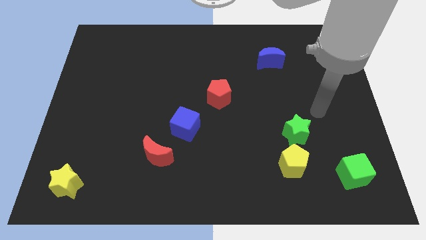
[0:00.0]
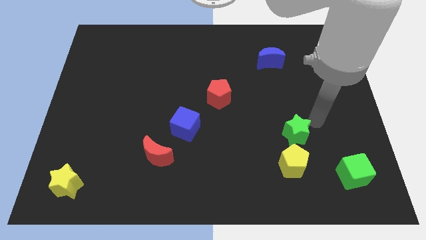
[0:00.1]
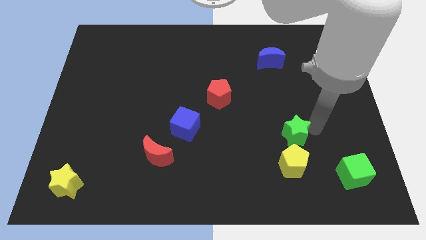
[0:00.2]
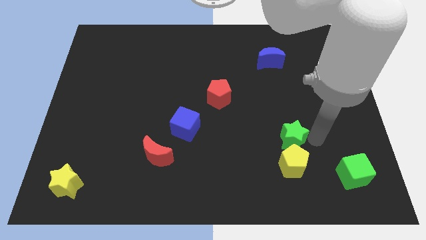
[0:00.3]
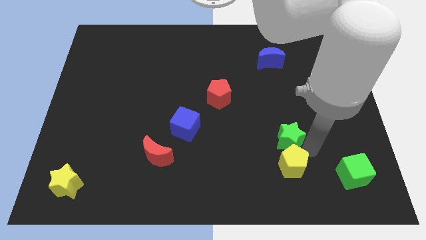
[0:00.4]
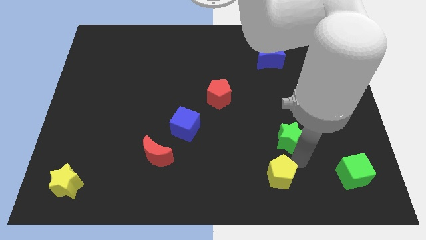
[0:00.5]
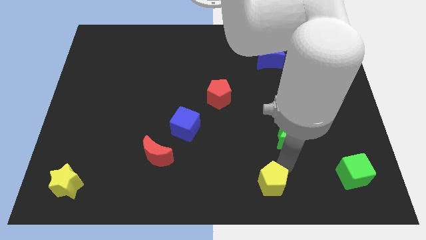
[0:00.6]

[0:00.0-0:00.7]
separate the green star from the yellow pentagon

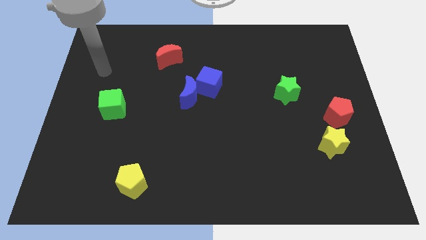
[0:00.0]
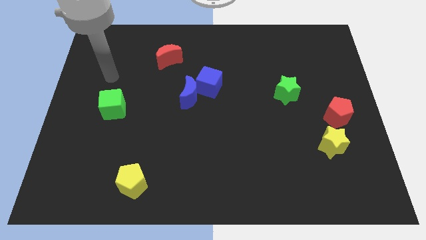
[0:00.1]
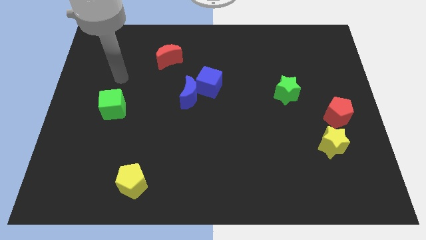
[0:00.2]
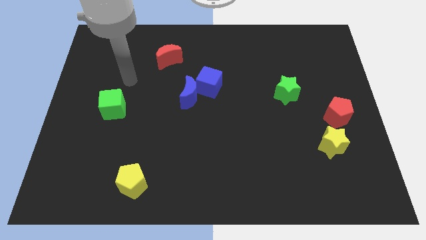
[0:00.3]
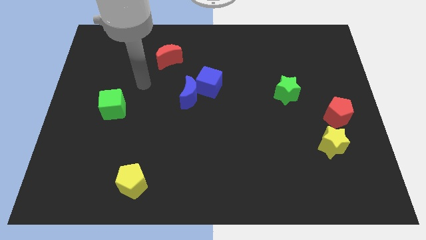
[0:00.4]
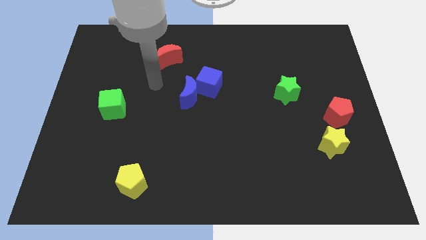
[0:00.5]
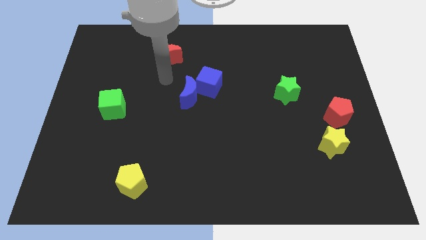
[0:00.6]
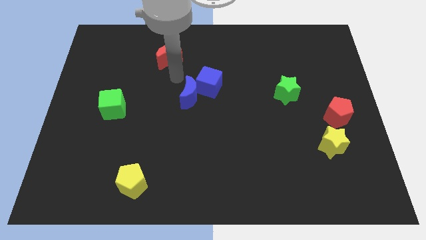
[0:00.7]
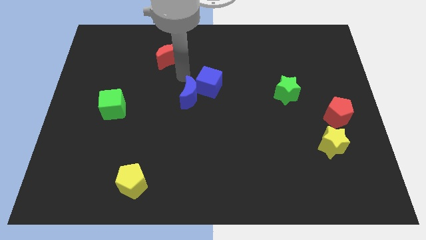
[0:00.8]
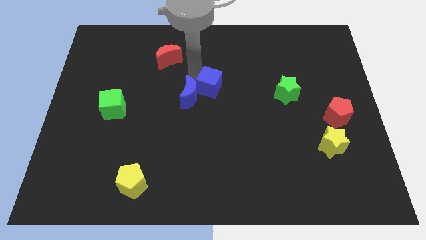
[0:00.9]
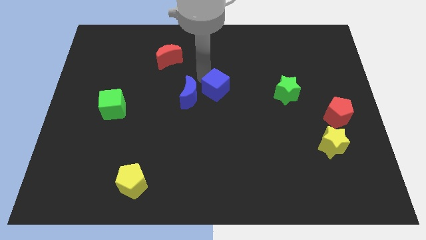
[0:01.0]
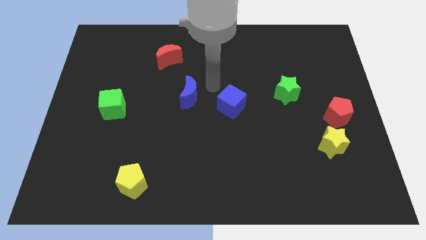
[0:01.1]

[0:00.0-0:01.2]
move the blue moon away from the blue cube

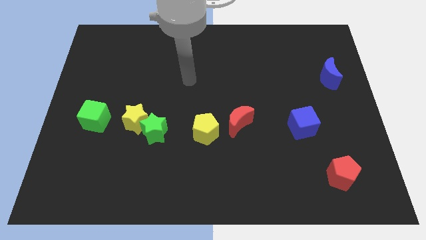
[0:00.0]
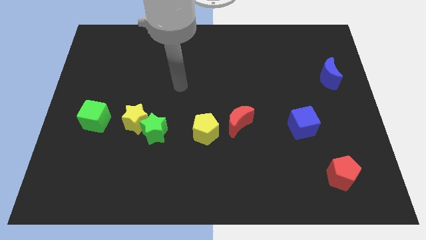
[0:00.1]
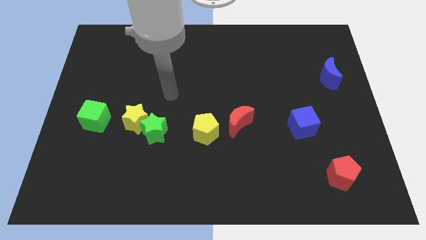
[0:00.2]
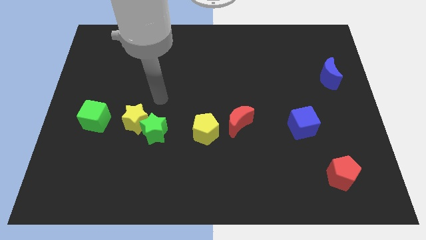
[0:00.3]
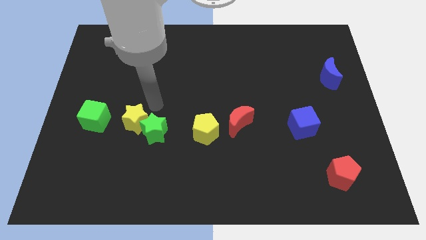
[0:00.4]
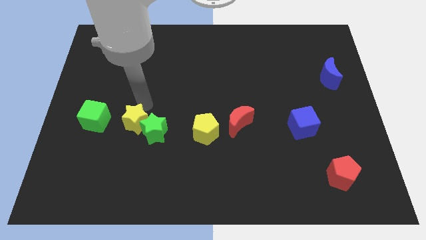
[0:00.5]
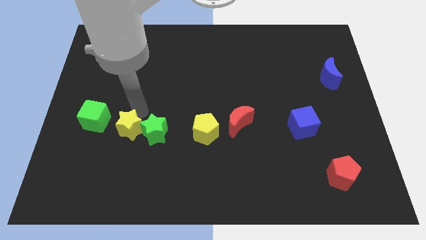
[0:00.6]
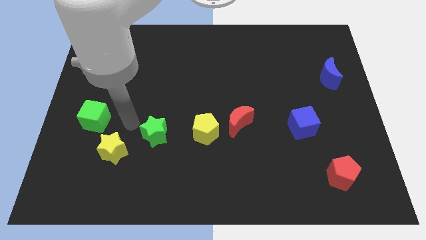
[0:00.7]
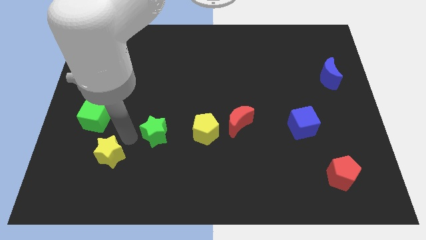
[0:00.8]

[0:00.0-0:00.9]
separate the green star from the yellow star

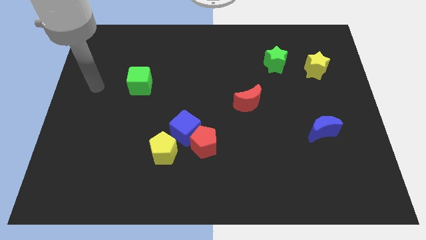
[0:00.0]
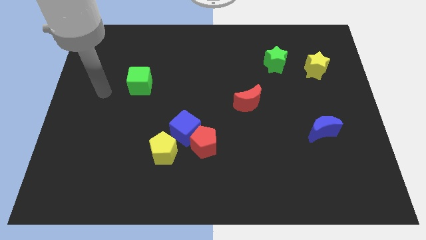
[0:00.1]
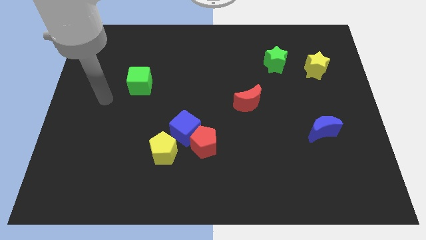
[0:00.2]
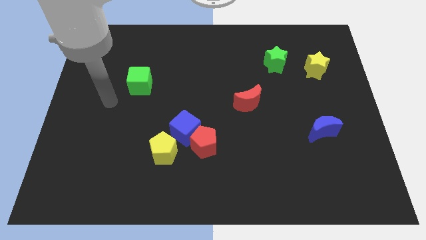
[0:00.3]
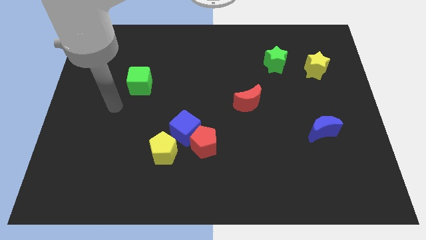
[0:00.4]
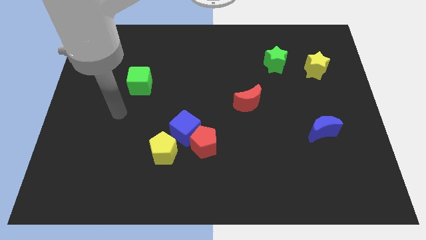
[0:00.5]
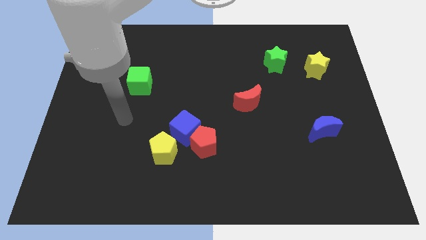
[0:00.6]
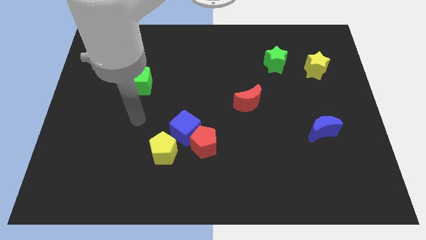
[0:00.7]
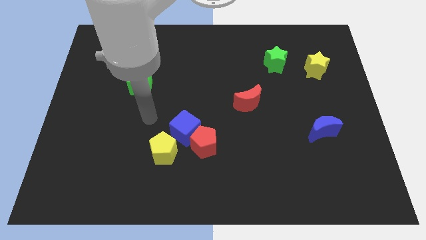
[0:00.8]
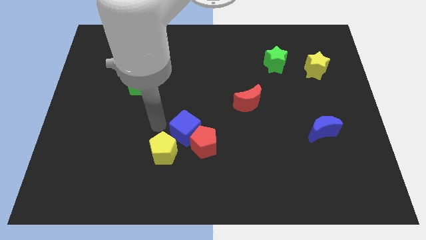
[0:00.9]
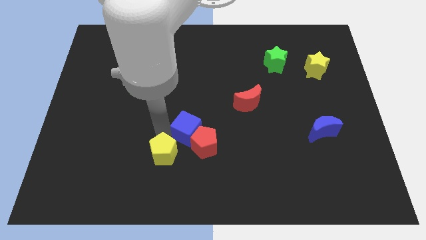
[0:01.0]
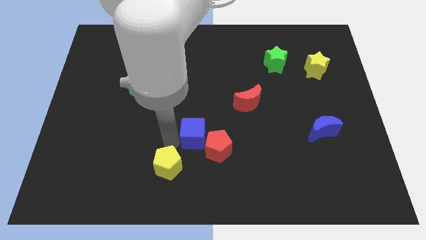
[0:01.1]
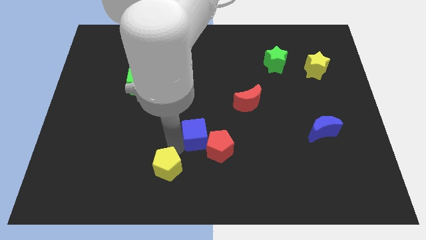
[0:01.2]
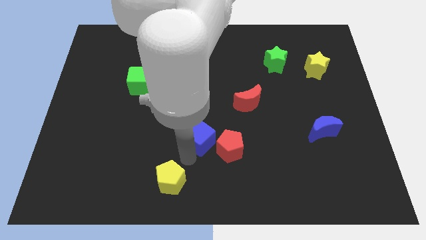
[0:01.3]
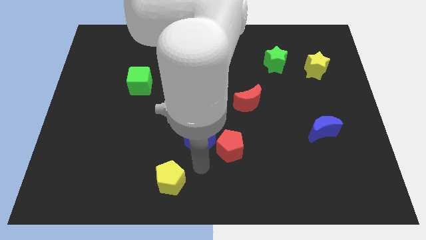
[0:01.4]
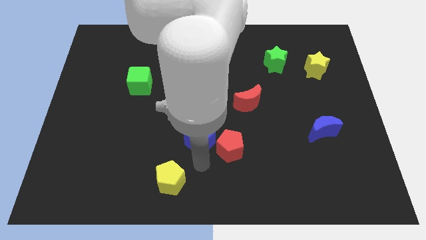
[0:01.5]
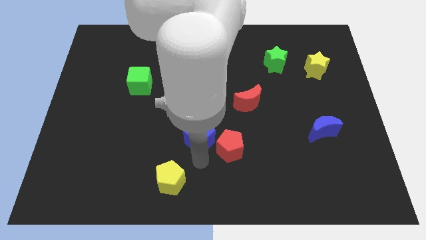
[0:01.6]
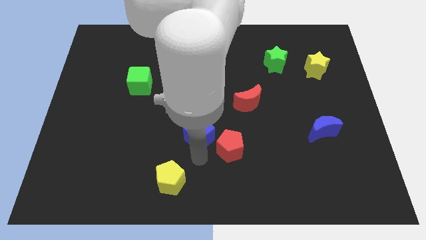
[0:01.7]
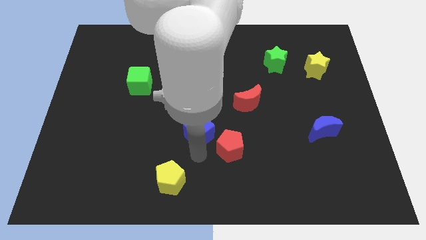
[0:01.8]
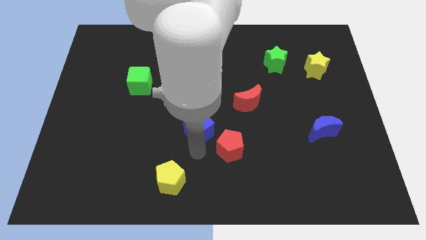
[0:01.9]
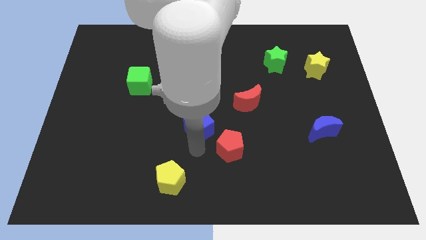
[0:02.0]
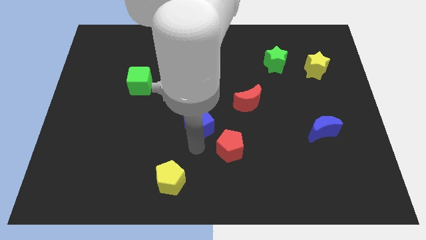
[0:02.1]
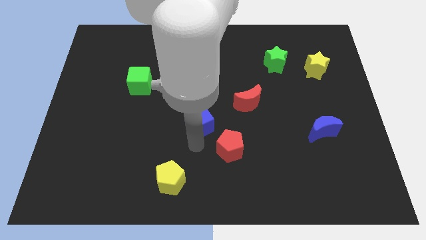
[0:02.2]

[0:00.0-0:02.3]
pull the blue cube apart from the red pentagon and yellow pentagon

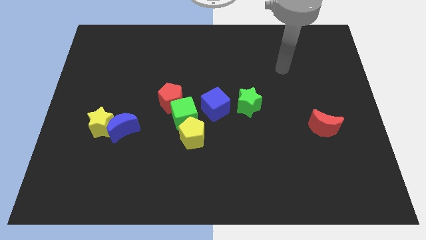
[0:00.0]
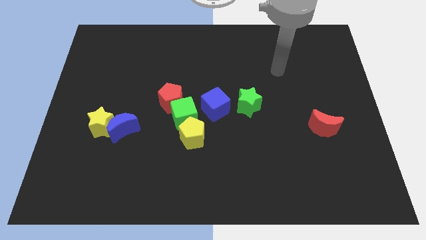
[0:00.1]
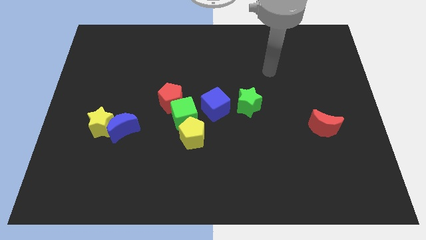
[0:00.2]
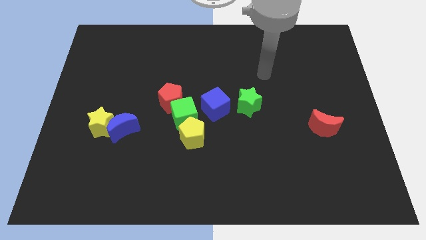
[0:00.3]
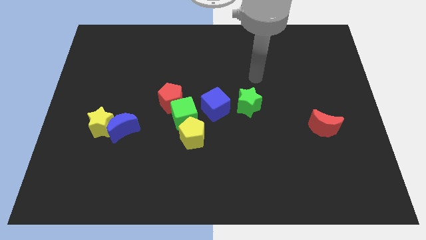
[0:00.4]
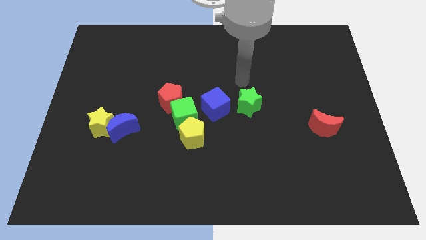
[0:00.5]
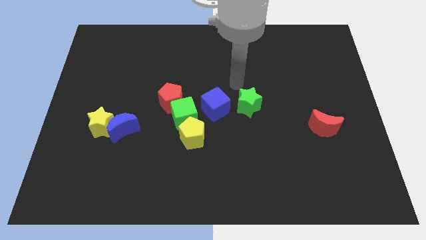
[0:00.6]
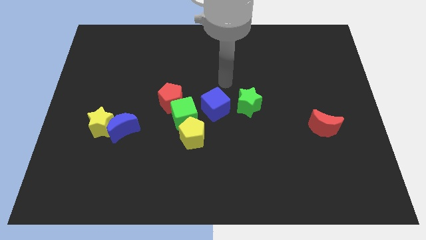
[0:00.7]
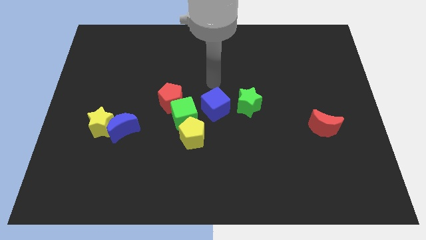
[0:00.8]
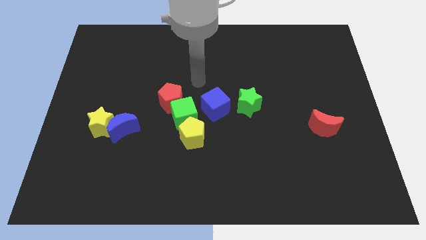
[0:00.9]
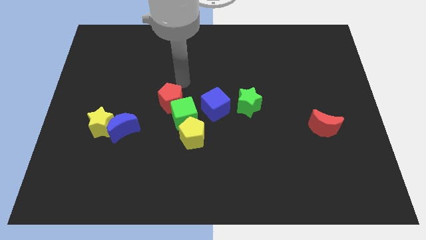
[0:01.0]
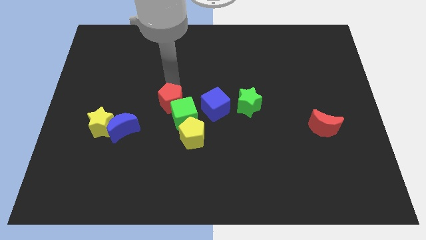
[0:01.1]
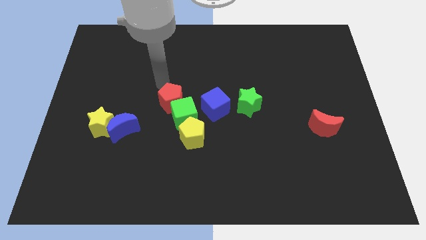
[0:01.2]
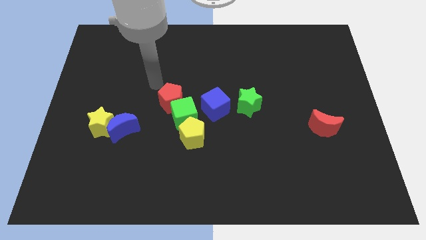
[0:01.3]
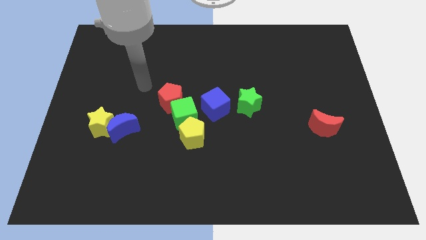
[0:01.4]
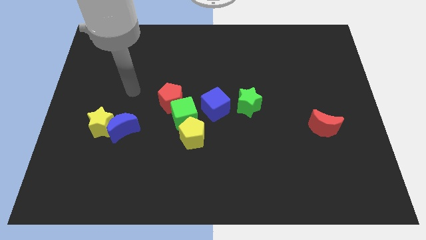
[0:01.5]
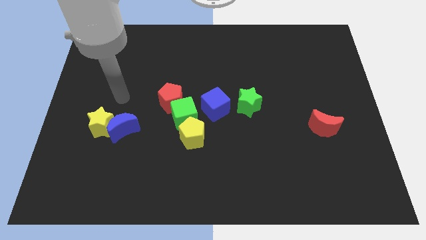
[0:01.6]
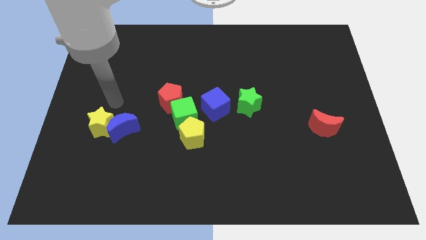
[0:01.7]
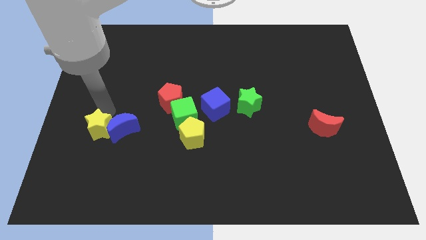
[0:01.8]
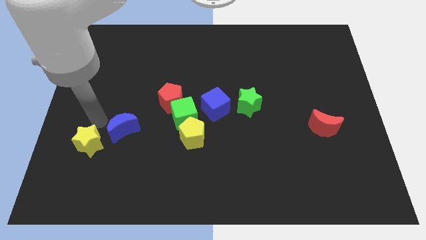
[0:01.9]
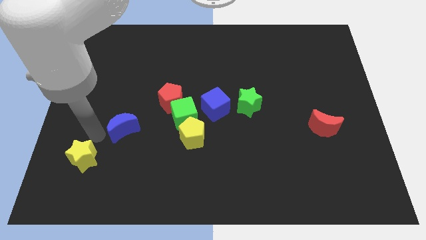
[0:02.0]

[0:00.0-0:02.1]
separate the blue moon from the yellow star

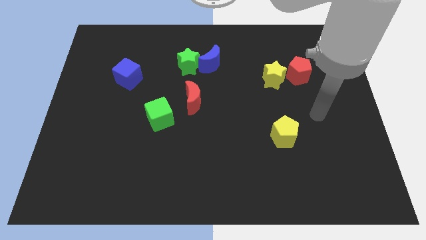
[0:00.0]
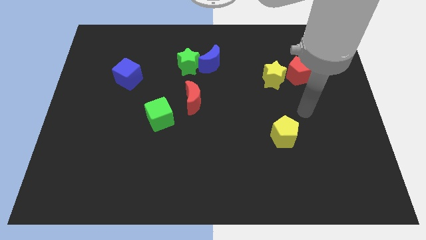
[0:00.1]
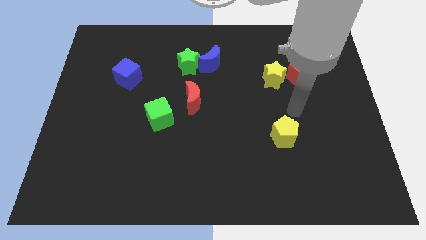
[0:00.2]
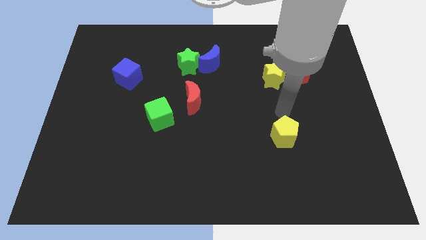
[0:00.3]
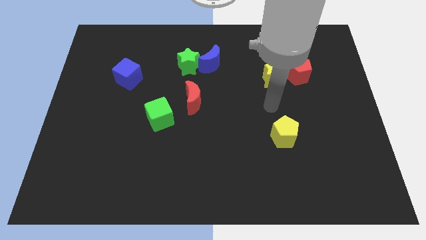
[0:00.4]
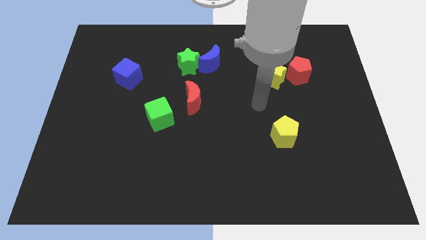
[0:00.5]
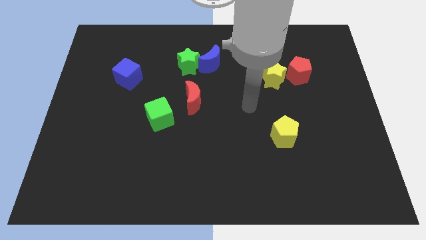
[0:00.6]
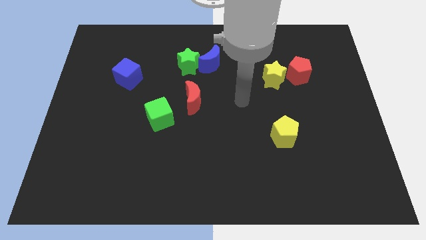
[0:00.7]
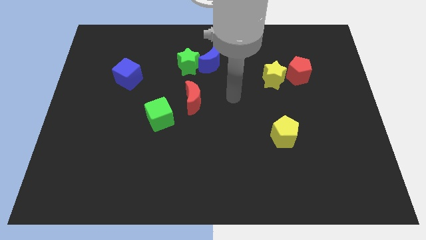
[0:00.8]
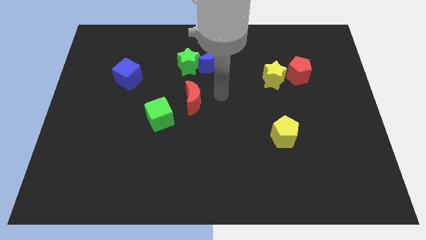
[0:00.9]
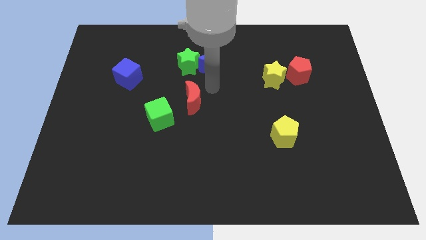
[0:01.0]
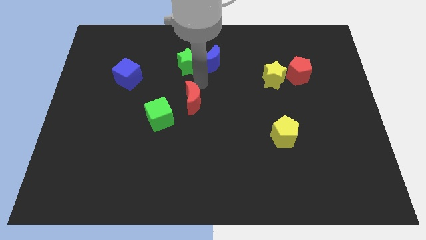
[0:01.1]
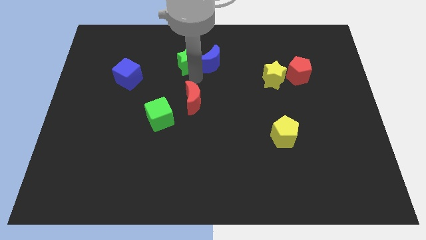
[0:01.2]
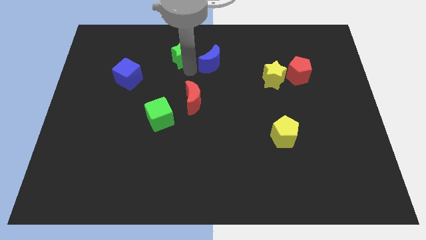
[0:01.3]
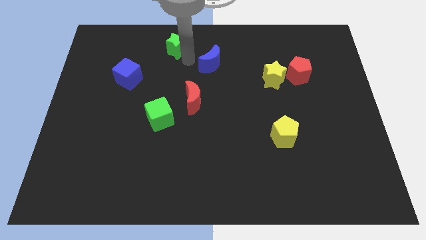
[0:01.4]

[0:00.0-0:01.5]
separate the blue moon from the green star

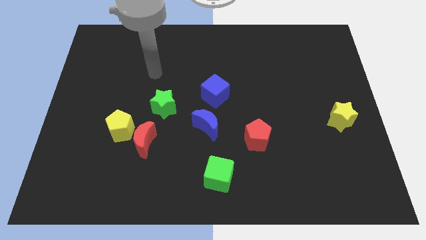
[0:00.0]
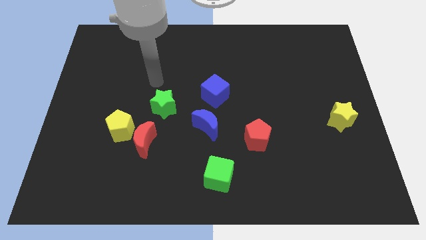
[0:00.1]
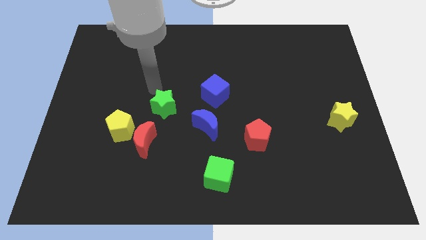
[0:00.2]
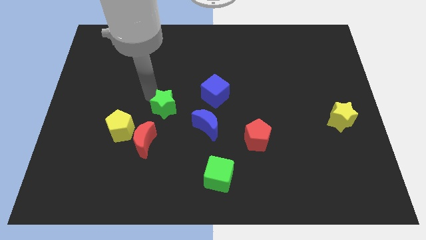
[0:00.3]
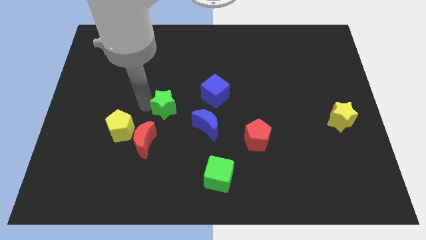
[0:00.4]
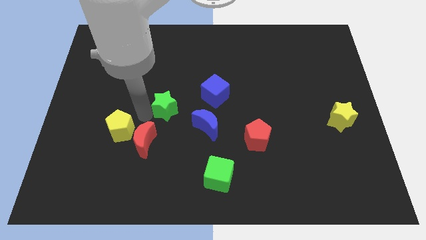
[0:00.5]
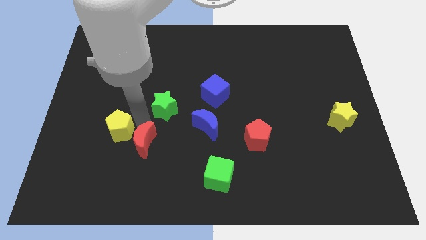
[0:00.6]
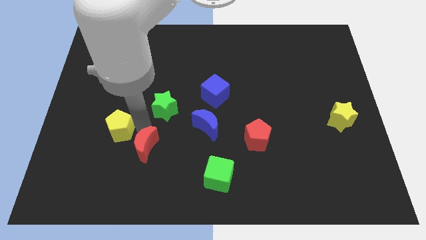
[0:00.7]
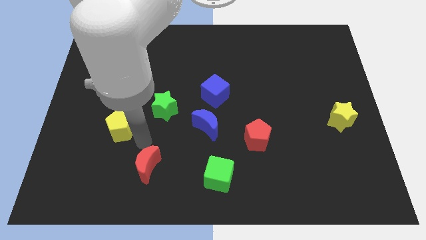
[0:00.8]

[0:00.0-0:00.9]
move the yellow pentagon away from the red moon
